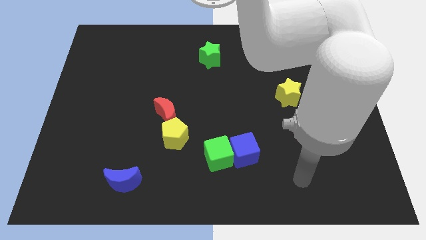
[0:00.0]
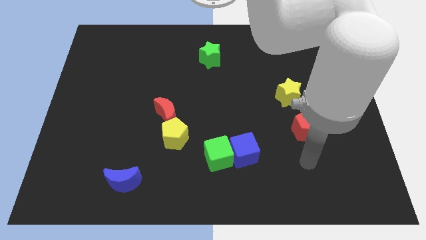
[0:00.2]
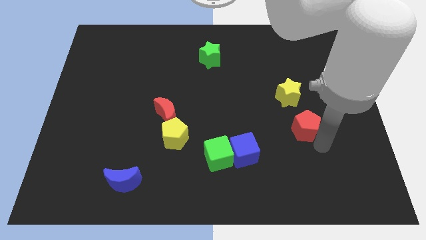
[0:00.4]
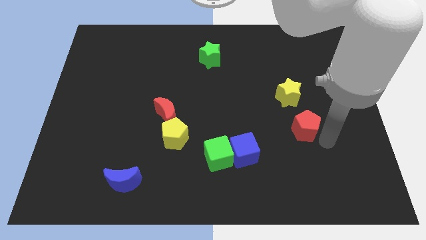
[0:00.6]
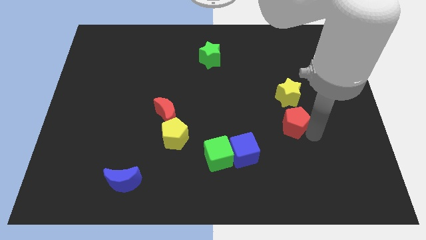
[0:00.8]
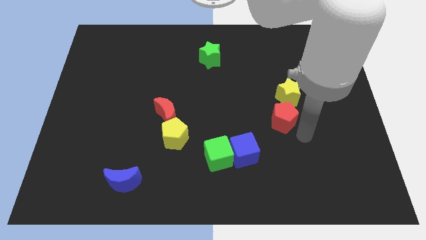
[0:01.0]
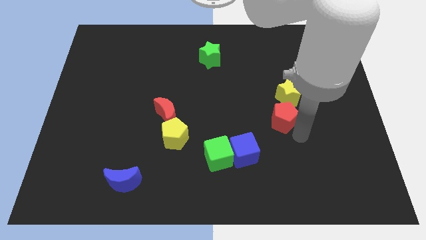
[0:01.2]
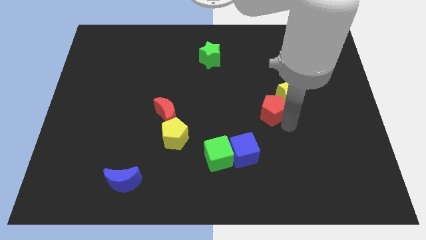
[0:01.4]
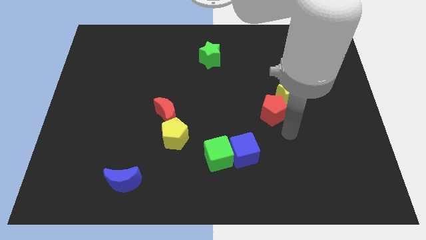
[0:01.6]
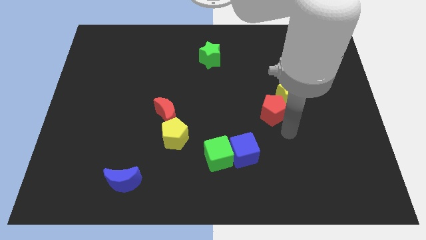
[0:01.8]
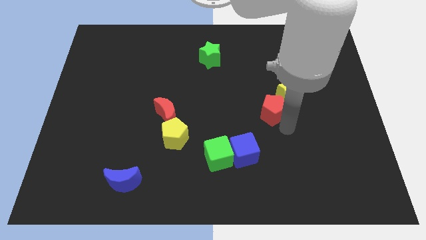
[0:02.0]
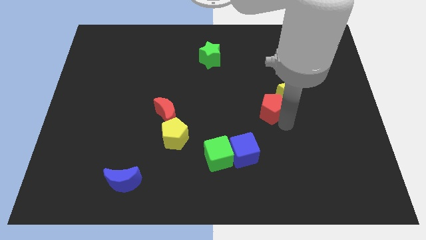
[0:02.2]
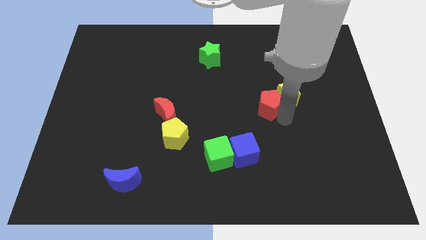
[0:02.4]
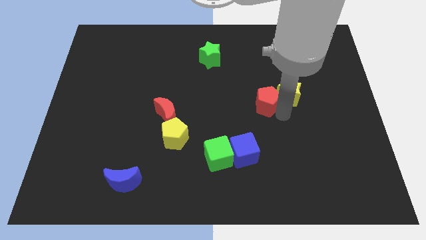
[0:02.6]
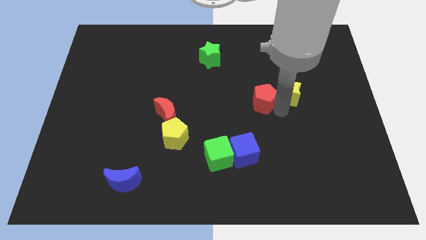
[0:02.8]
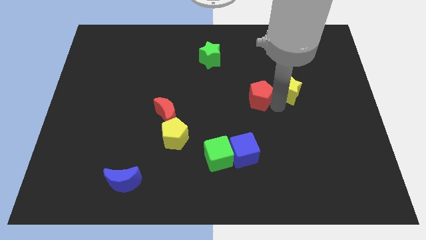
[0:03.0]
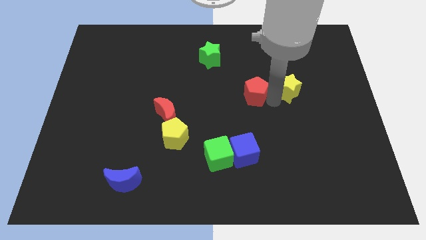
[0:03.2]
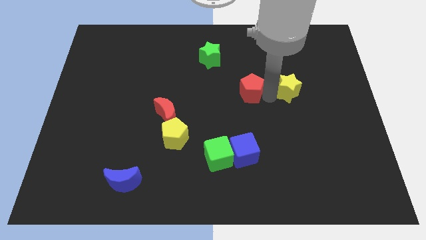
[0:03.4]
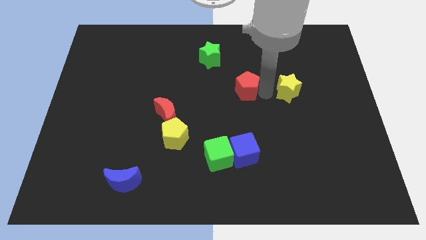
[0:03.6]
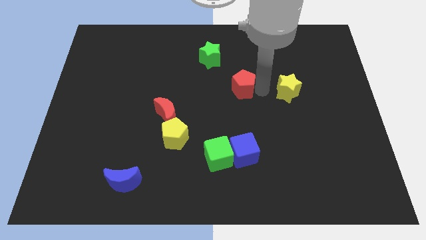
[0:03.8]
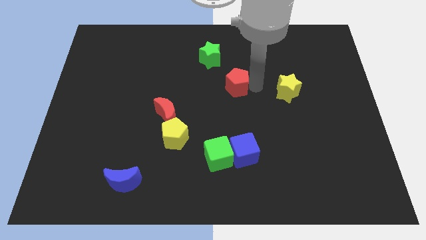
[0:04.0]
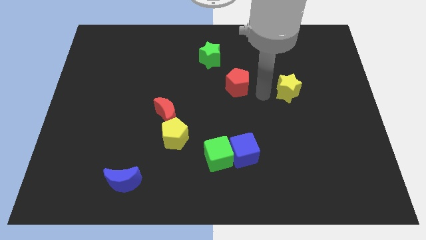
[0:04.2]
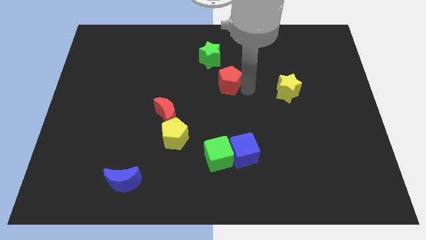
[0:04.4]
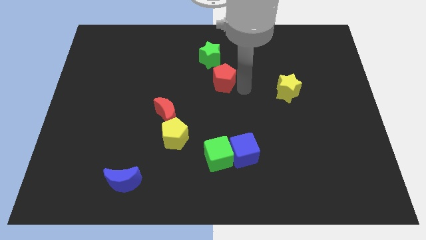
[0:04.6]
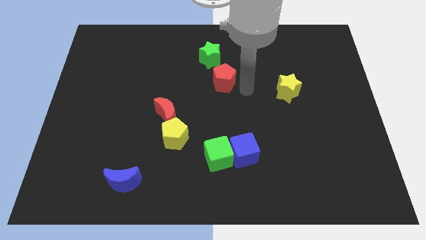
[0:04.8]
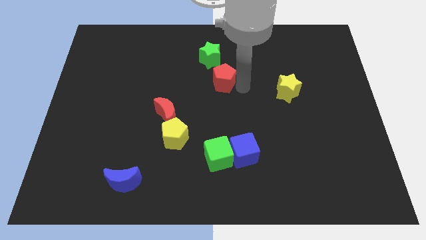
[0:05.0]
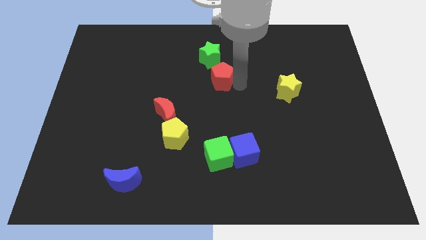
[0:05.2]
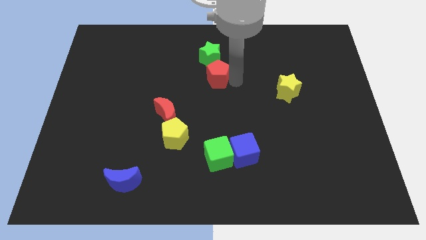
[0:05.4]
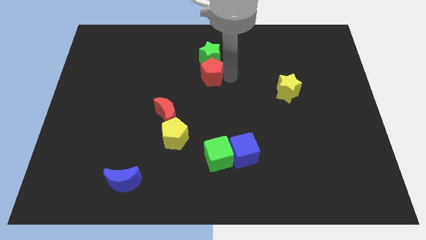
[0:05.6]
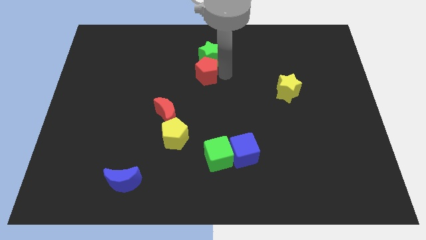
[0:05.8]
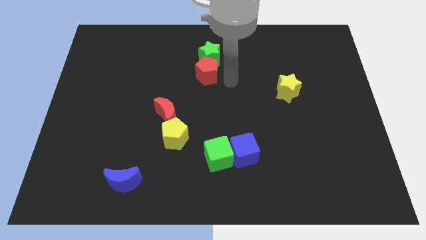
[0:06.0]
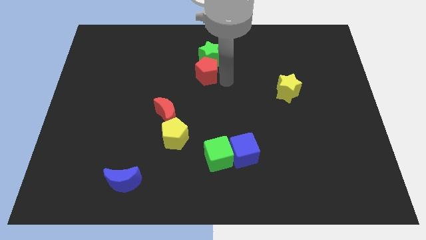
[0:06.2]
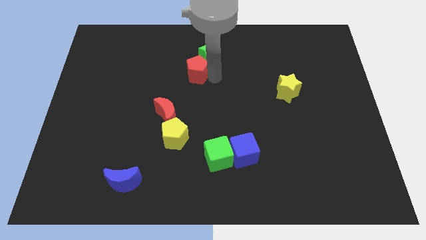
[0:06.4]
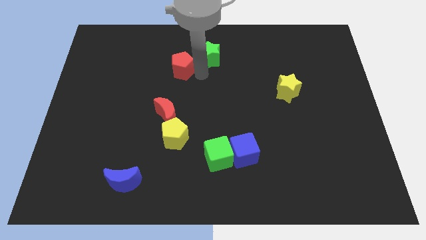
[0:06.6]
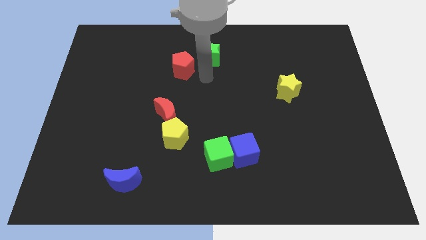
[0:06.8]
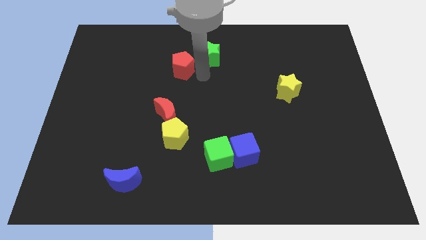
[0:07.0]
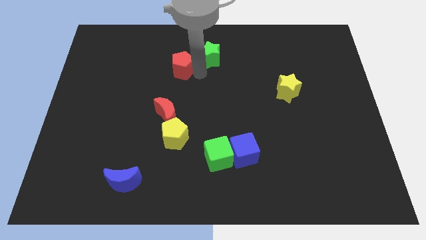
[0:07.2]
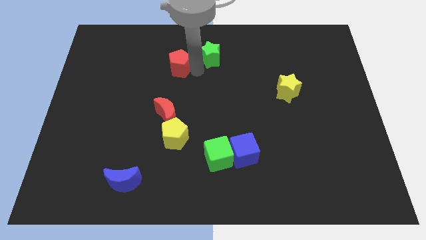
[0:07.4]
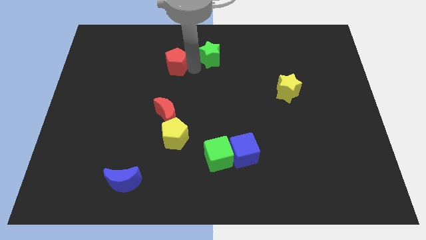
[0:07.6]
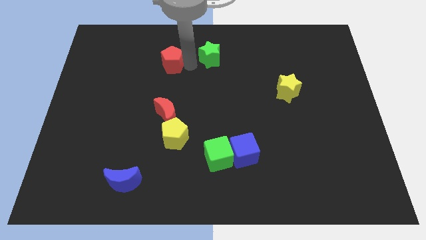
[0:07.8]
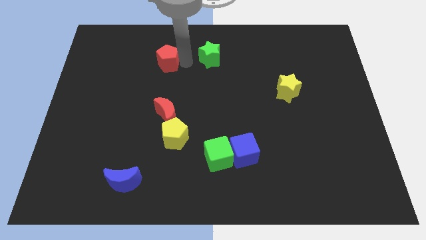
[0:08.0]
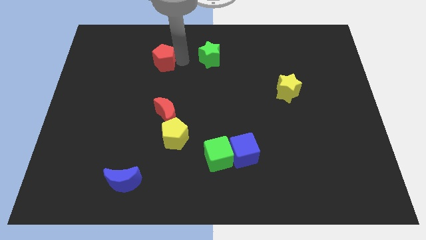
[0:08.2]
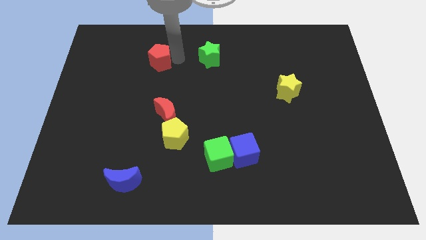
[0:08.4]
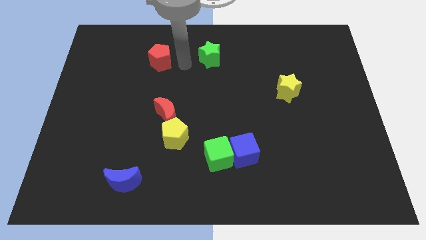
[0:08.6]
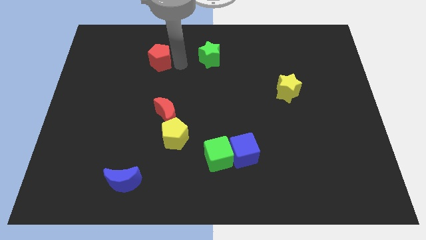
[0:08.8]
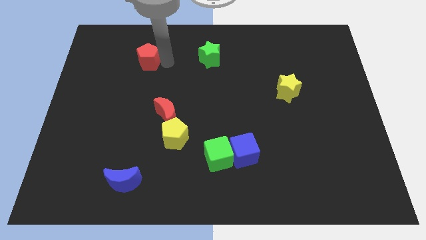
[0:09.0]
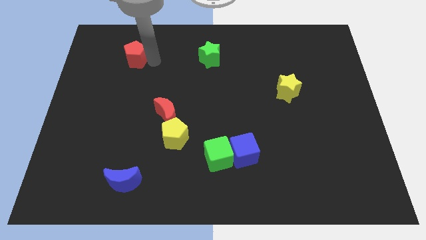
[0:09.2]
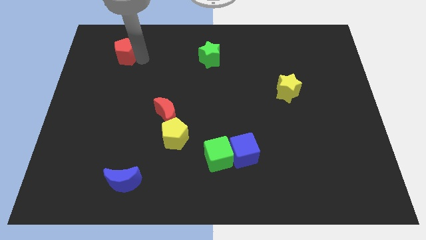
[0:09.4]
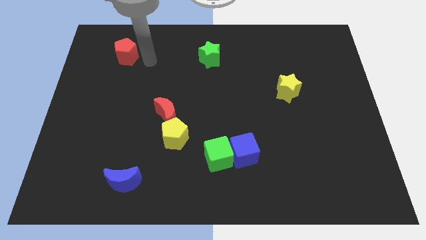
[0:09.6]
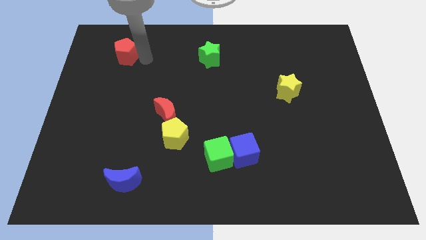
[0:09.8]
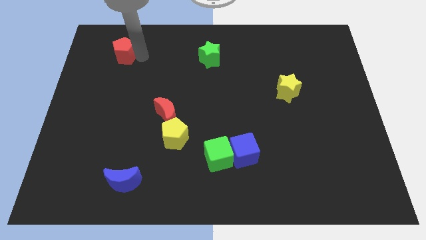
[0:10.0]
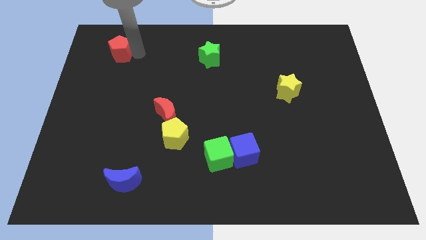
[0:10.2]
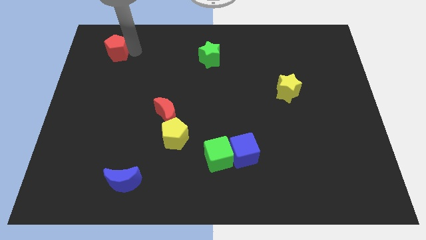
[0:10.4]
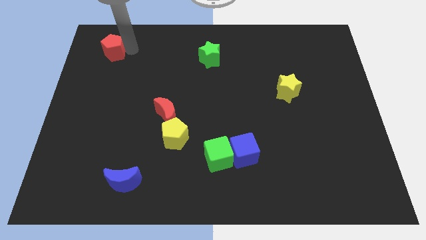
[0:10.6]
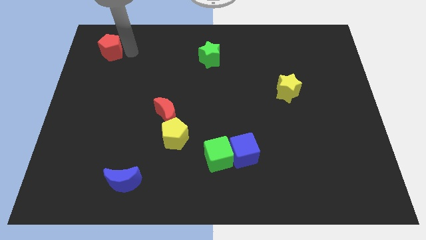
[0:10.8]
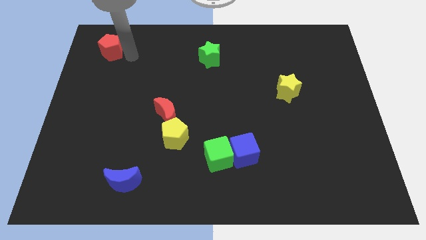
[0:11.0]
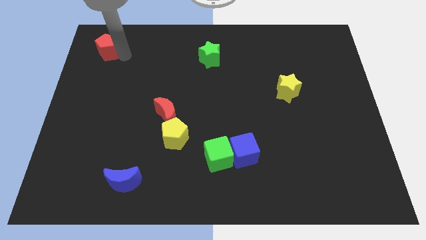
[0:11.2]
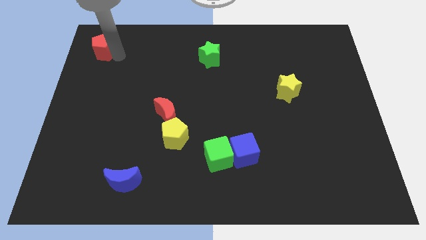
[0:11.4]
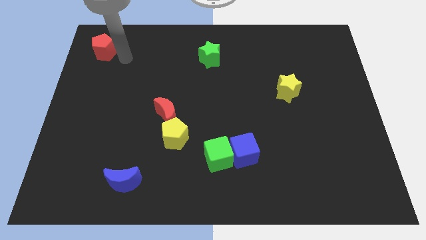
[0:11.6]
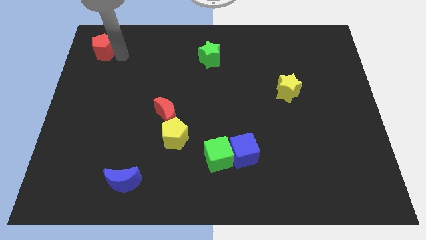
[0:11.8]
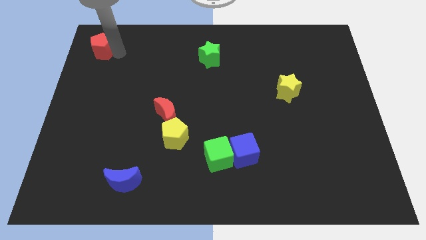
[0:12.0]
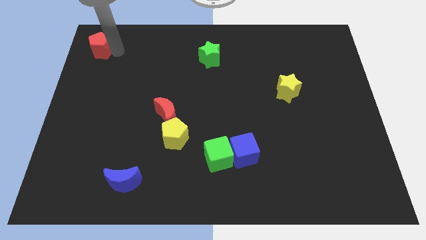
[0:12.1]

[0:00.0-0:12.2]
put the red pentagon to the top left

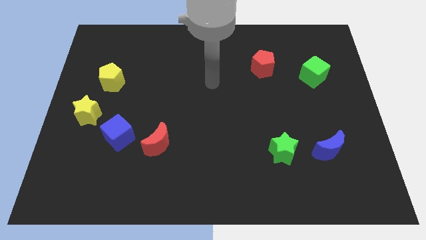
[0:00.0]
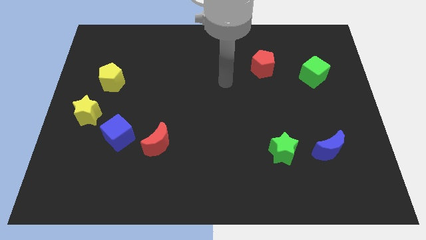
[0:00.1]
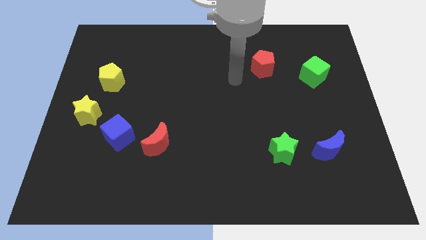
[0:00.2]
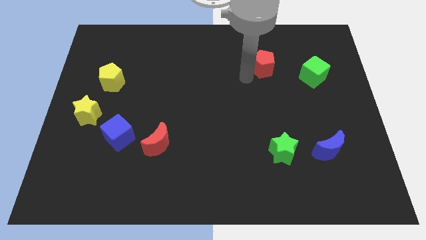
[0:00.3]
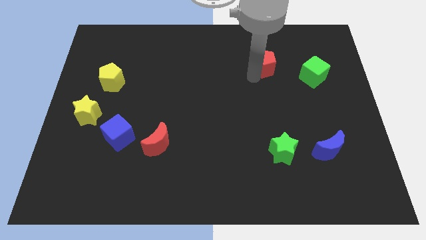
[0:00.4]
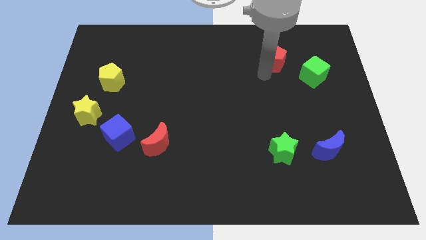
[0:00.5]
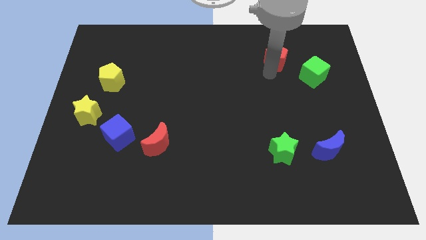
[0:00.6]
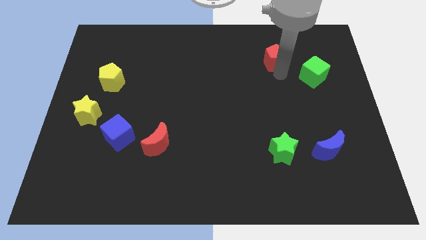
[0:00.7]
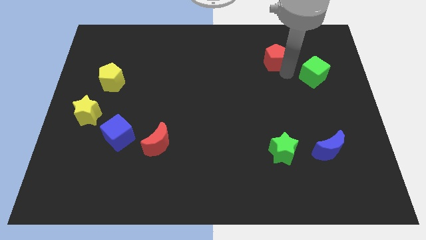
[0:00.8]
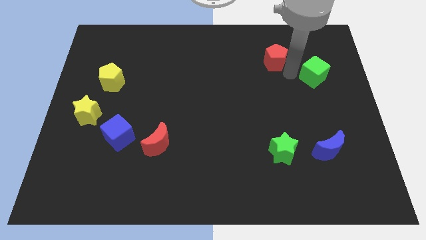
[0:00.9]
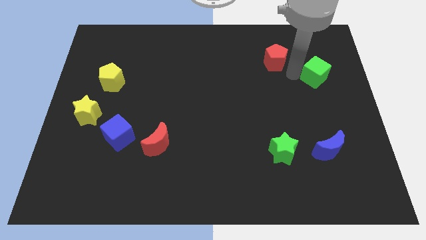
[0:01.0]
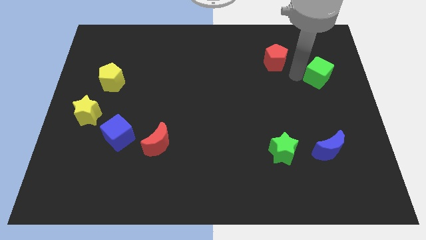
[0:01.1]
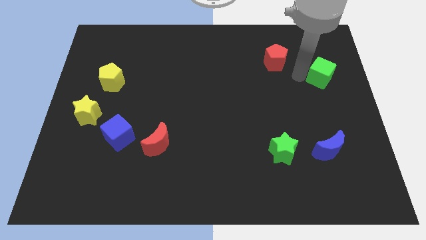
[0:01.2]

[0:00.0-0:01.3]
put the green cube to the right side of the board
